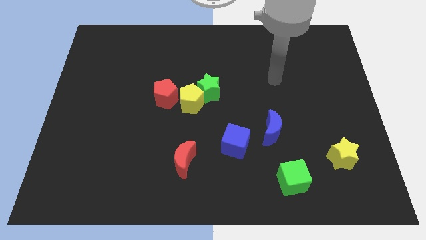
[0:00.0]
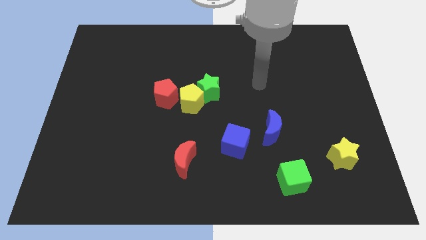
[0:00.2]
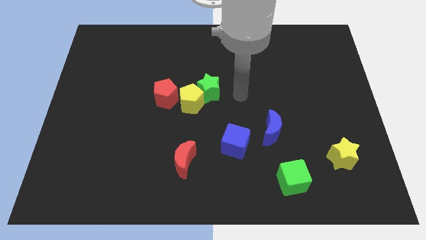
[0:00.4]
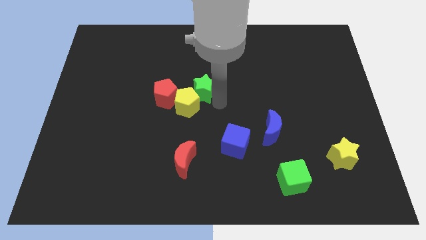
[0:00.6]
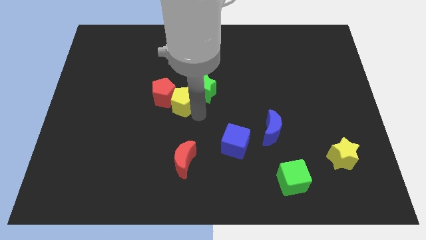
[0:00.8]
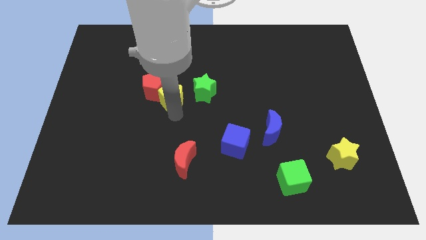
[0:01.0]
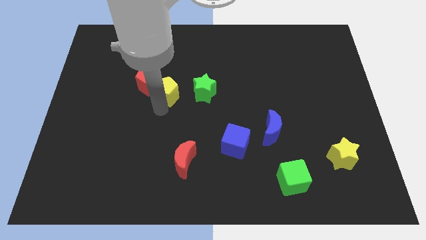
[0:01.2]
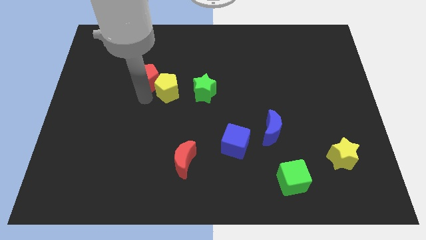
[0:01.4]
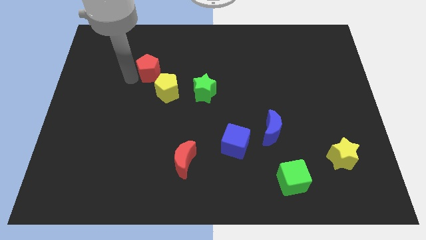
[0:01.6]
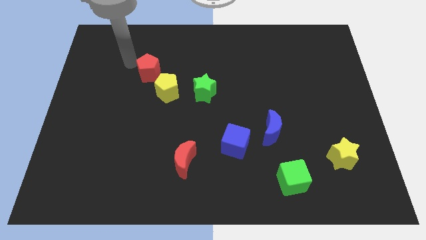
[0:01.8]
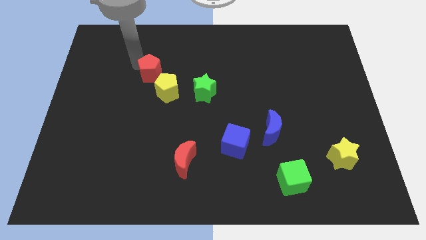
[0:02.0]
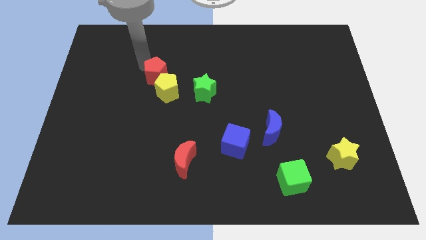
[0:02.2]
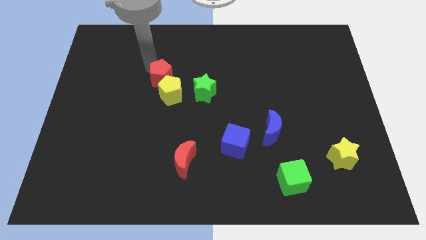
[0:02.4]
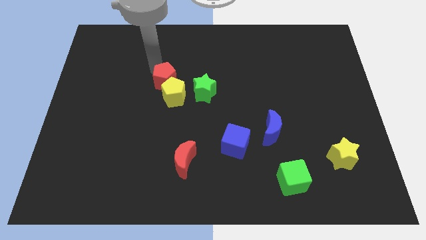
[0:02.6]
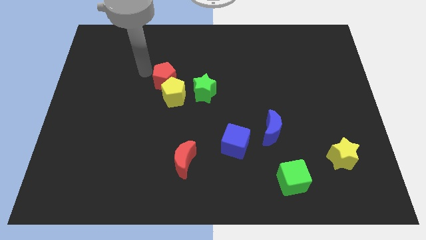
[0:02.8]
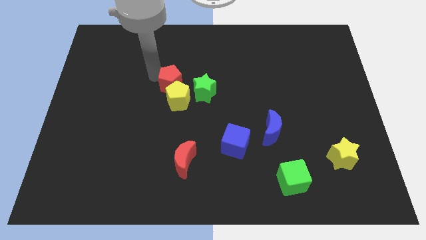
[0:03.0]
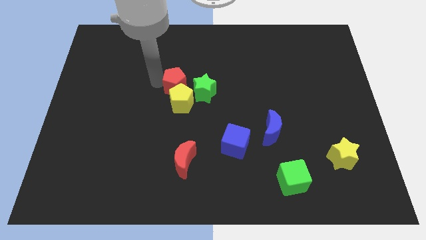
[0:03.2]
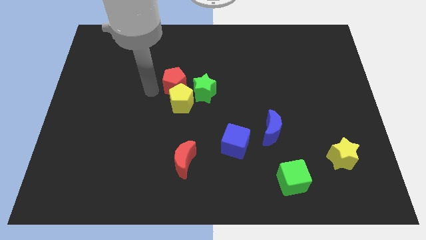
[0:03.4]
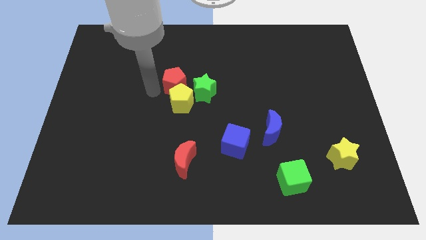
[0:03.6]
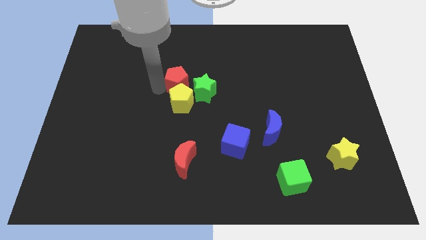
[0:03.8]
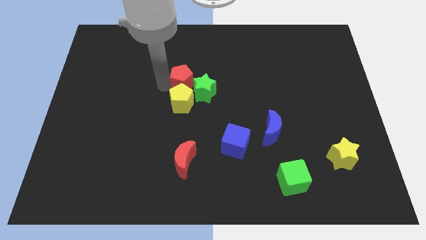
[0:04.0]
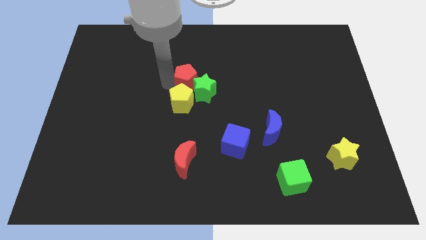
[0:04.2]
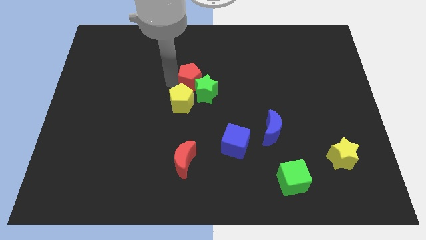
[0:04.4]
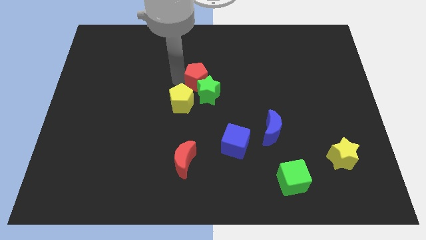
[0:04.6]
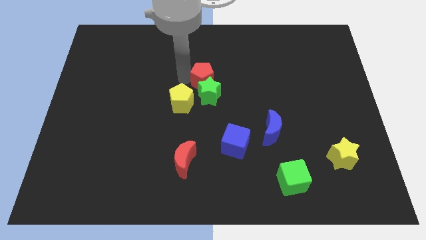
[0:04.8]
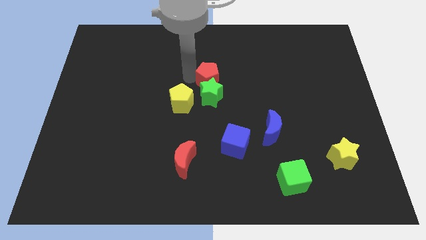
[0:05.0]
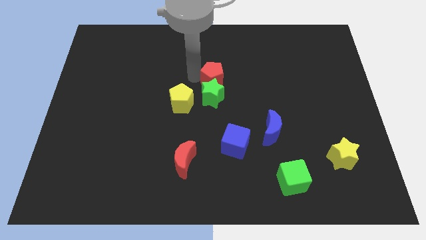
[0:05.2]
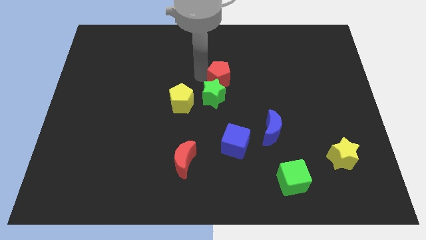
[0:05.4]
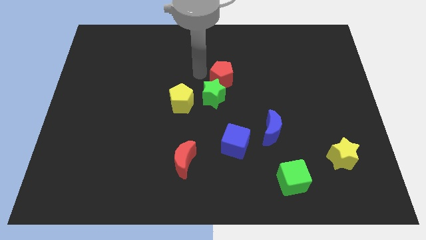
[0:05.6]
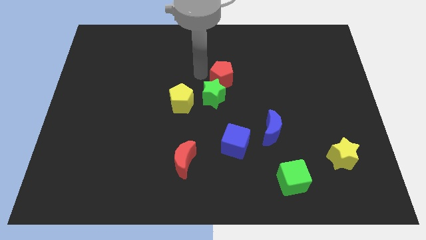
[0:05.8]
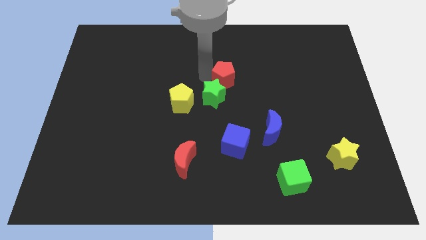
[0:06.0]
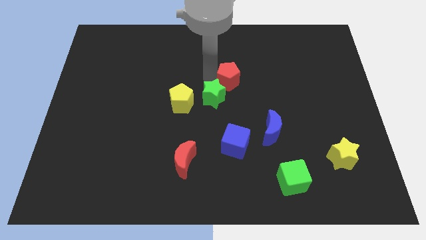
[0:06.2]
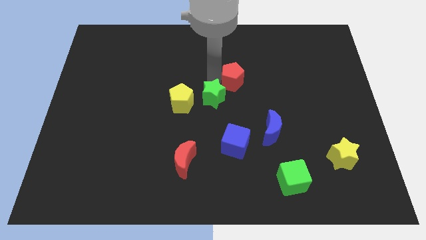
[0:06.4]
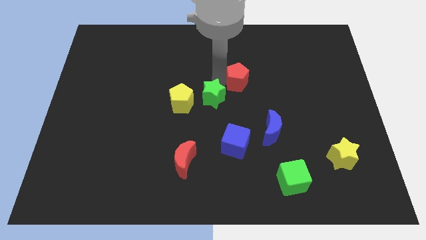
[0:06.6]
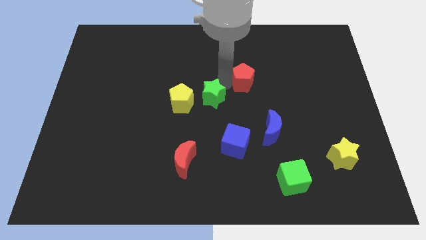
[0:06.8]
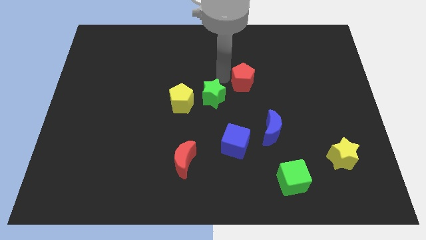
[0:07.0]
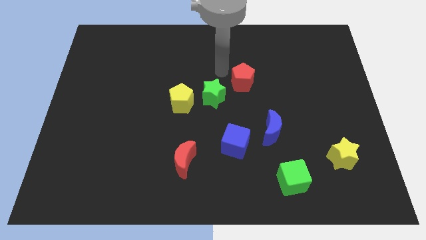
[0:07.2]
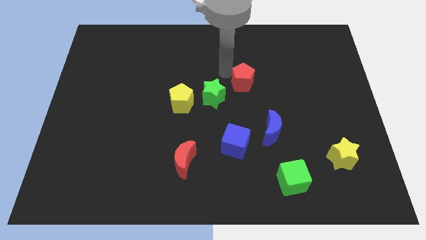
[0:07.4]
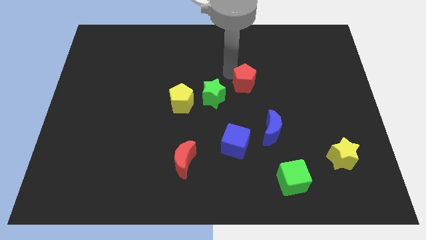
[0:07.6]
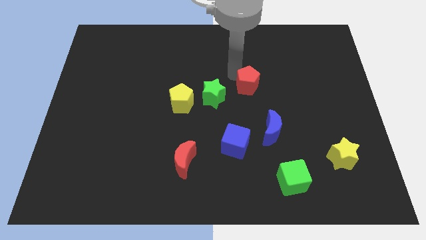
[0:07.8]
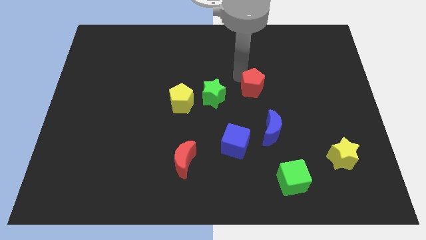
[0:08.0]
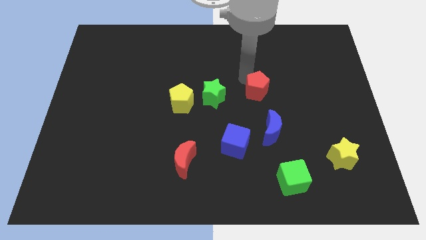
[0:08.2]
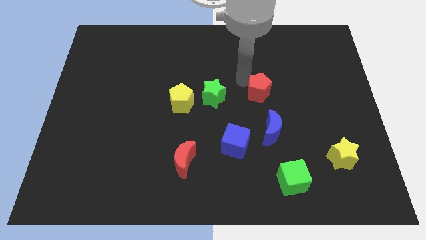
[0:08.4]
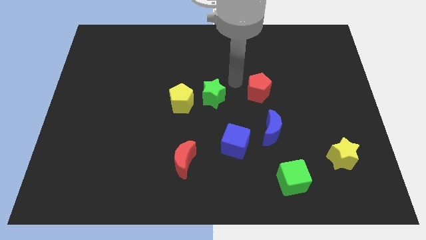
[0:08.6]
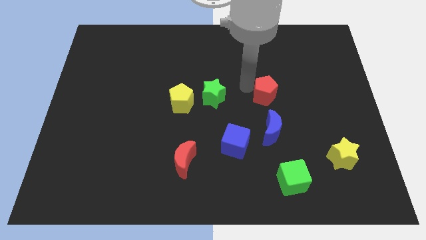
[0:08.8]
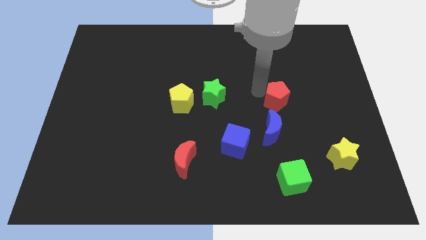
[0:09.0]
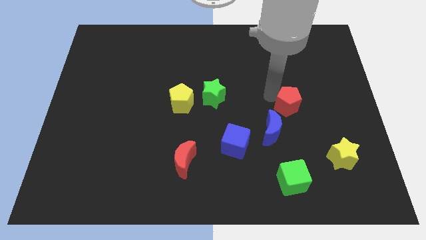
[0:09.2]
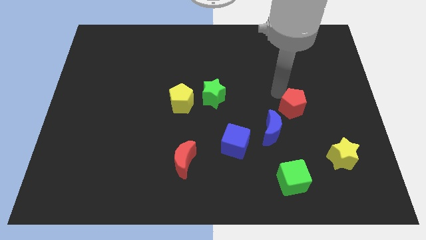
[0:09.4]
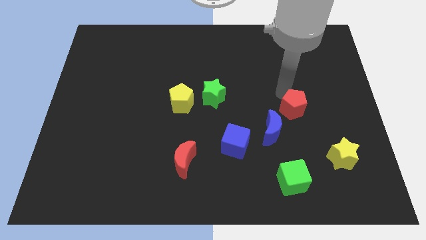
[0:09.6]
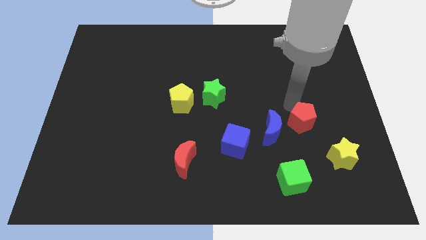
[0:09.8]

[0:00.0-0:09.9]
put the red pentagon diagonally up and to the left of the yellow star

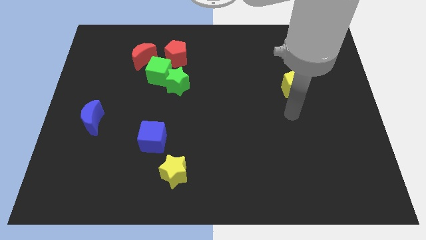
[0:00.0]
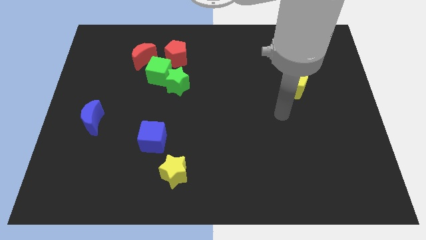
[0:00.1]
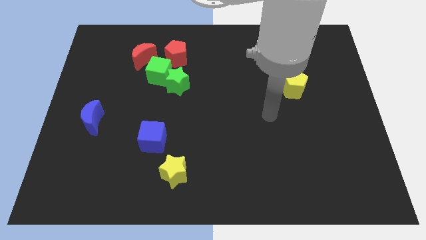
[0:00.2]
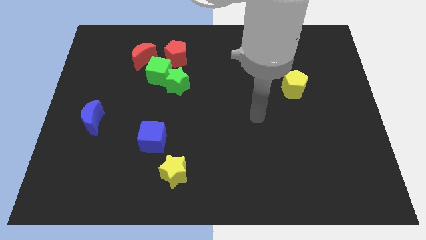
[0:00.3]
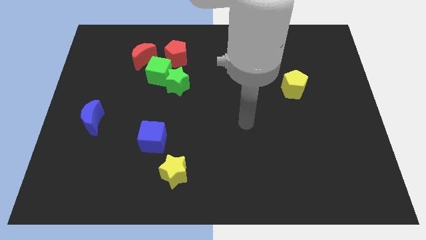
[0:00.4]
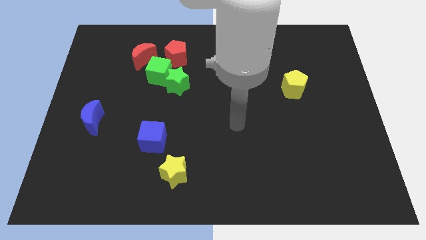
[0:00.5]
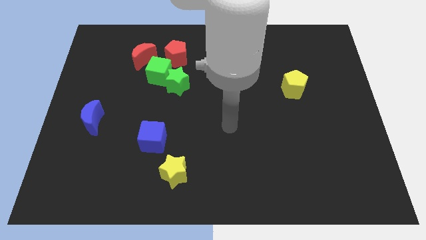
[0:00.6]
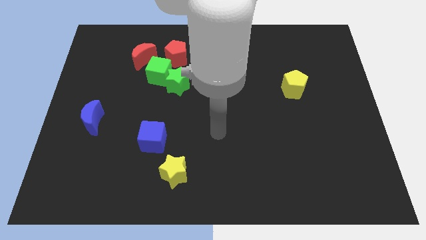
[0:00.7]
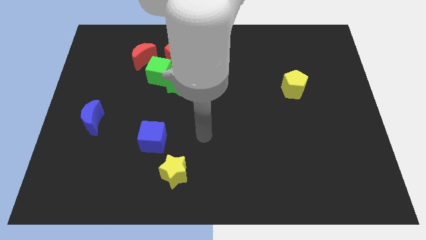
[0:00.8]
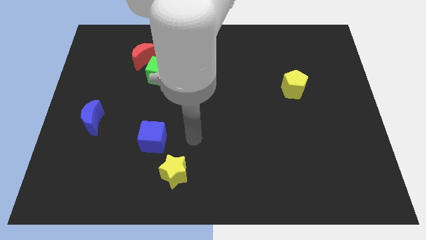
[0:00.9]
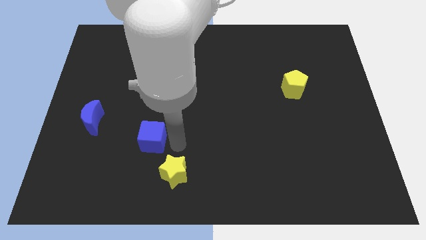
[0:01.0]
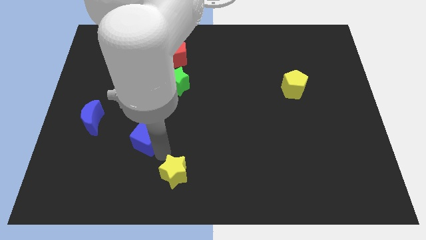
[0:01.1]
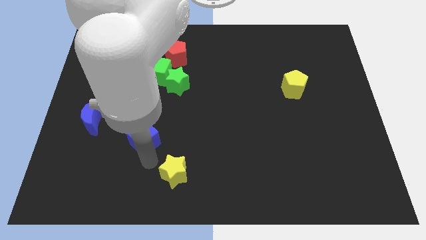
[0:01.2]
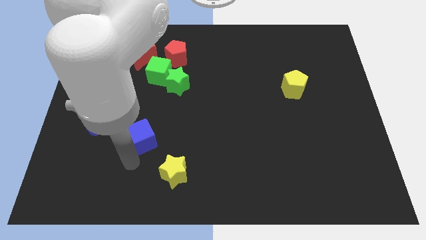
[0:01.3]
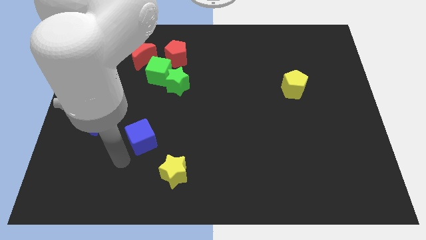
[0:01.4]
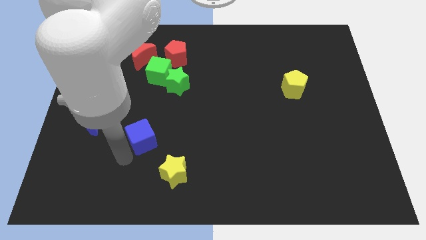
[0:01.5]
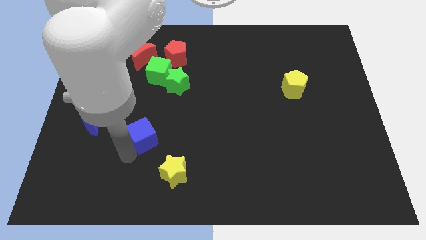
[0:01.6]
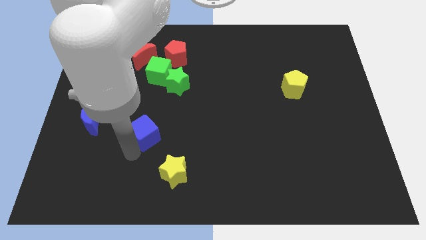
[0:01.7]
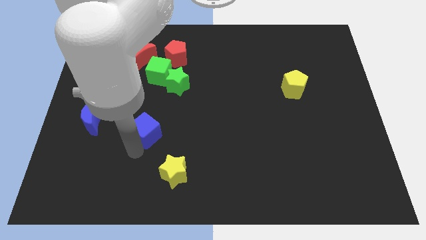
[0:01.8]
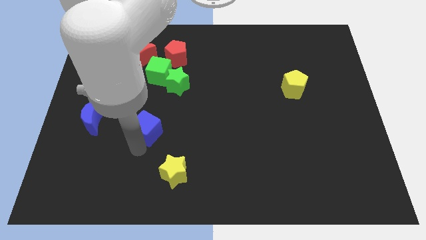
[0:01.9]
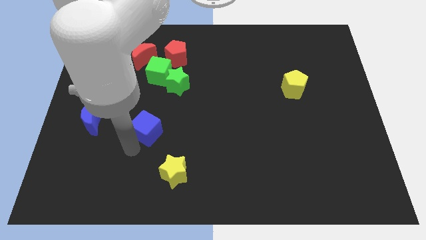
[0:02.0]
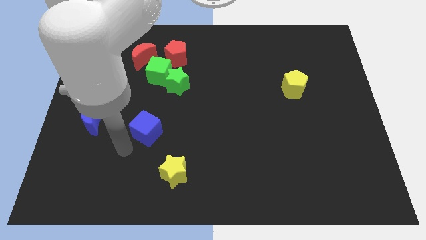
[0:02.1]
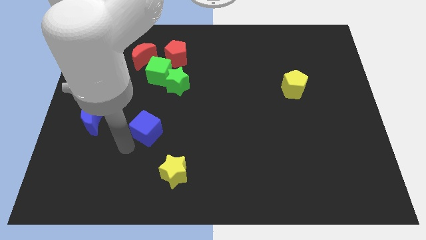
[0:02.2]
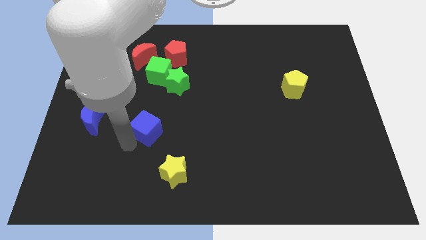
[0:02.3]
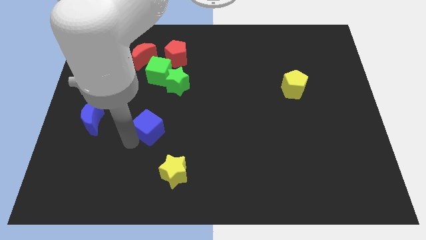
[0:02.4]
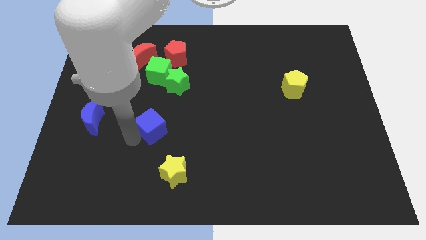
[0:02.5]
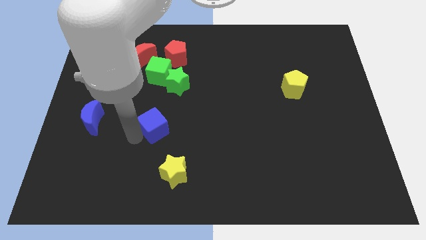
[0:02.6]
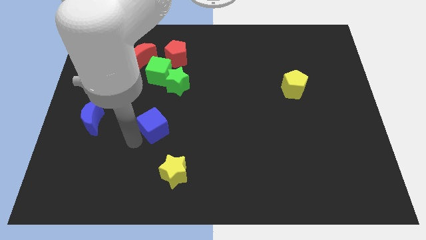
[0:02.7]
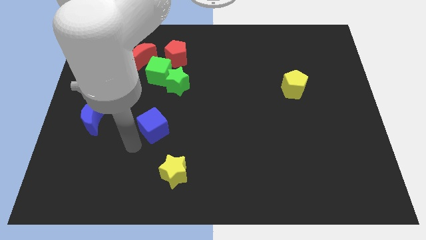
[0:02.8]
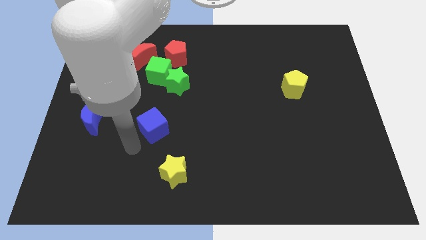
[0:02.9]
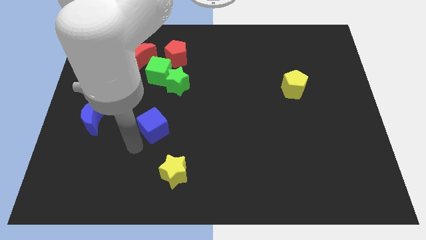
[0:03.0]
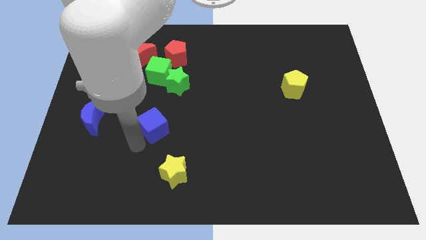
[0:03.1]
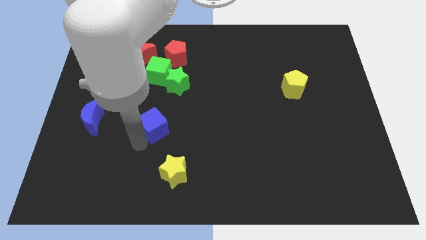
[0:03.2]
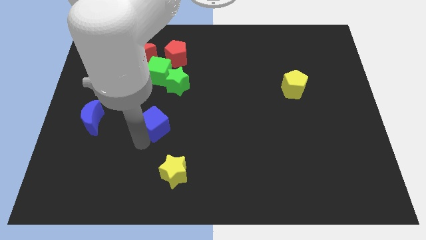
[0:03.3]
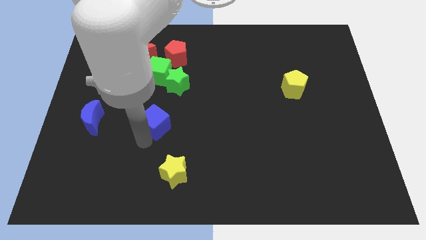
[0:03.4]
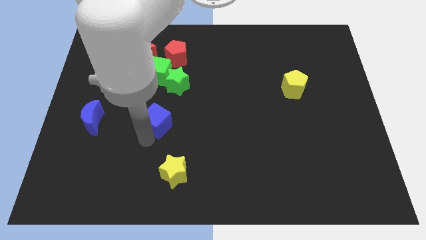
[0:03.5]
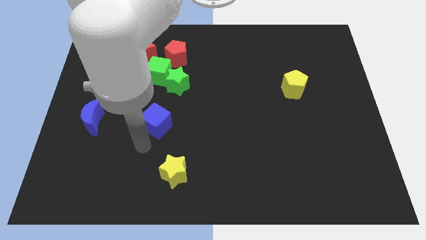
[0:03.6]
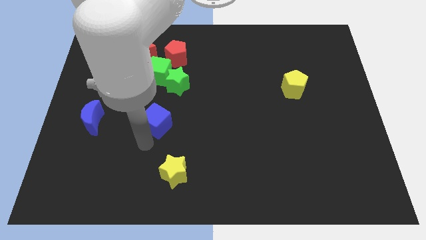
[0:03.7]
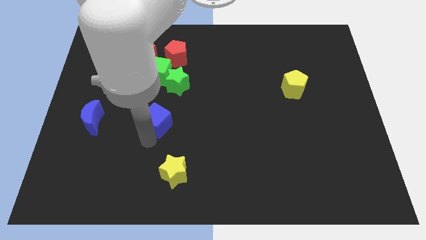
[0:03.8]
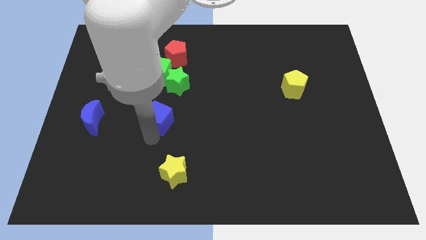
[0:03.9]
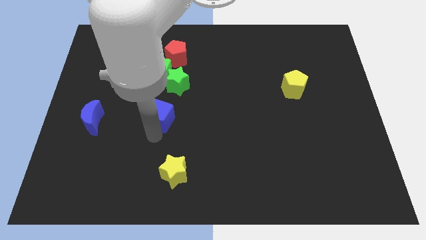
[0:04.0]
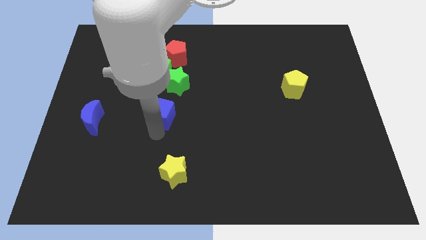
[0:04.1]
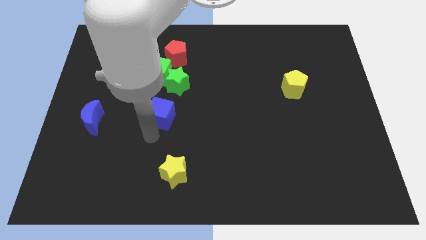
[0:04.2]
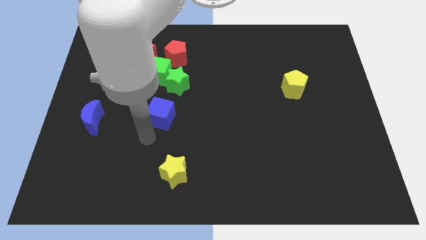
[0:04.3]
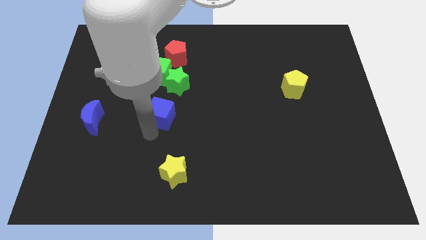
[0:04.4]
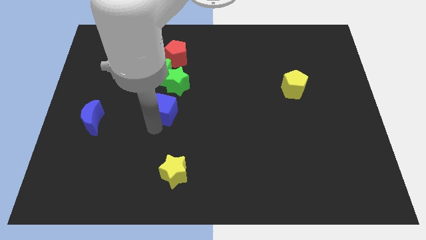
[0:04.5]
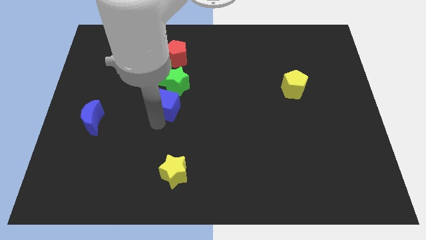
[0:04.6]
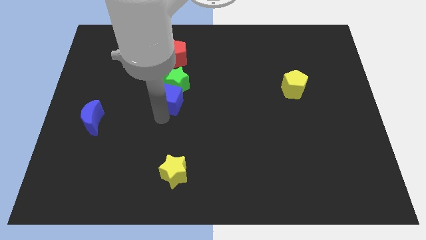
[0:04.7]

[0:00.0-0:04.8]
put the blue cube to the bottom of the red pentagon
